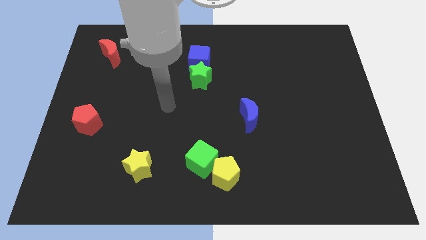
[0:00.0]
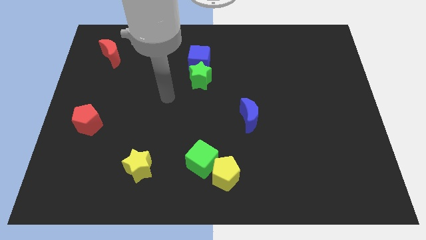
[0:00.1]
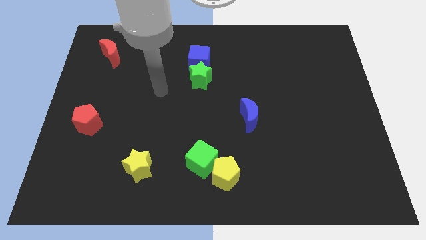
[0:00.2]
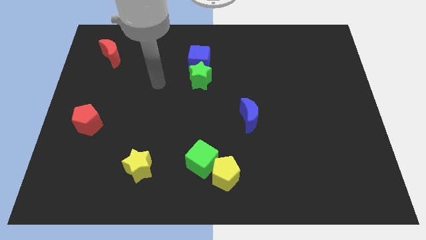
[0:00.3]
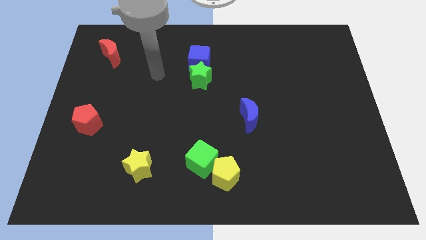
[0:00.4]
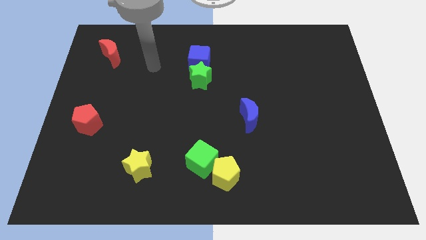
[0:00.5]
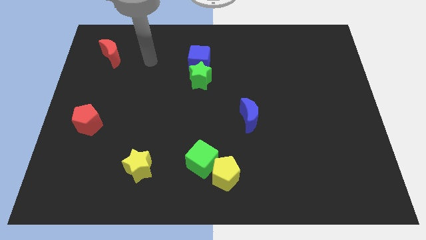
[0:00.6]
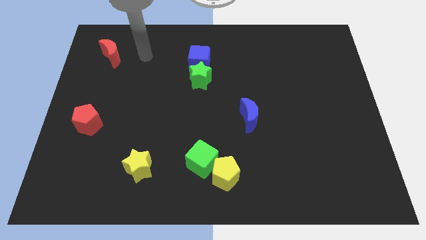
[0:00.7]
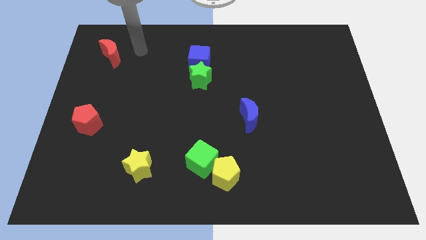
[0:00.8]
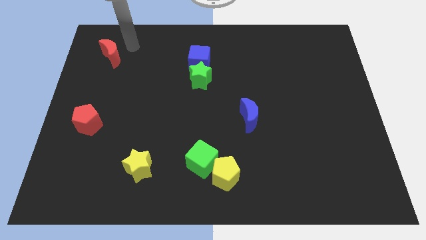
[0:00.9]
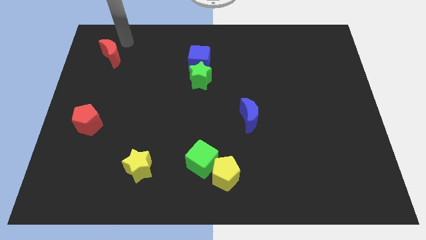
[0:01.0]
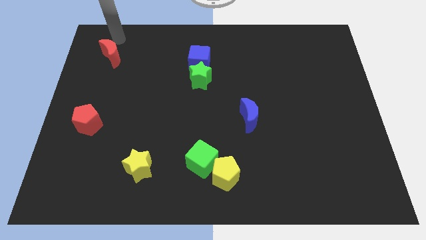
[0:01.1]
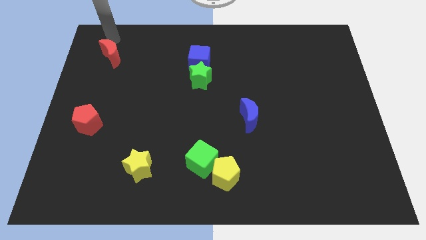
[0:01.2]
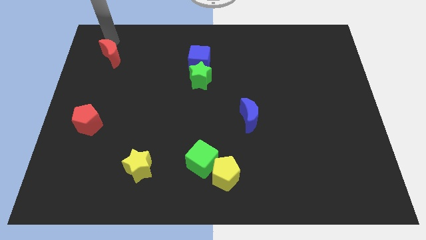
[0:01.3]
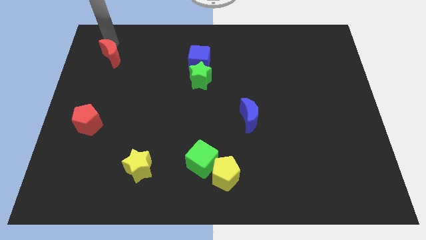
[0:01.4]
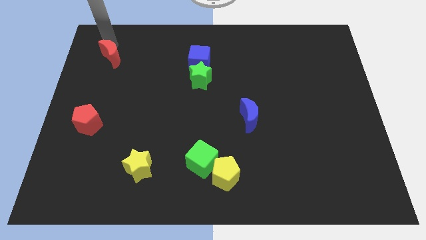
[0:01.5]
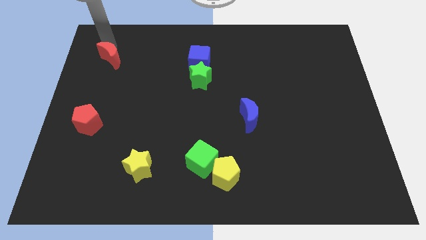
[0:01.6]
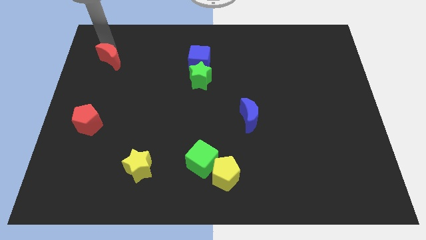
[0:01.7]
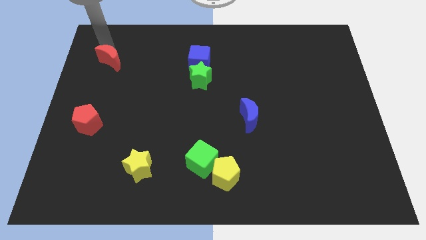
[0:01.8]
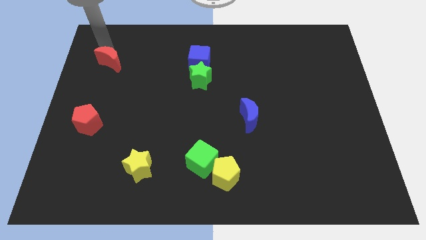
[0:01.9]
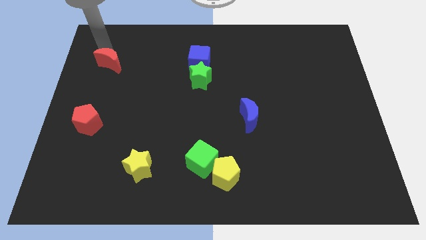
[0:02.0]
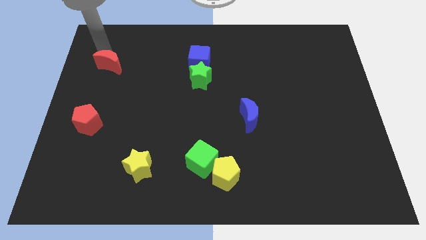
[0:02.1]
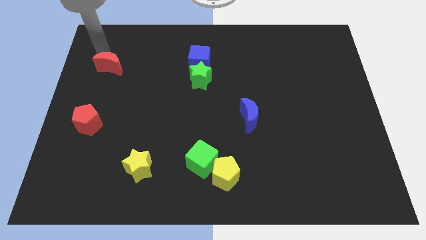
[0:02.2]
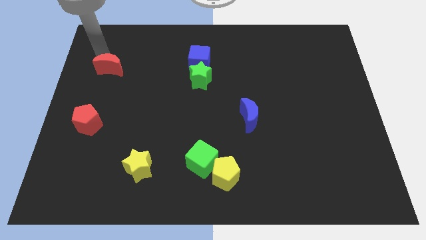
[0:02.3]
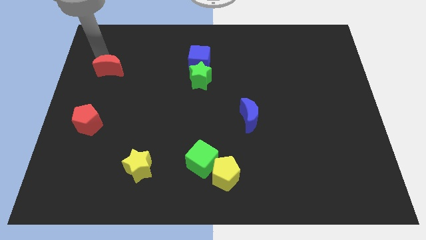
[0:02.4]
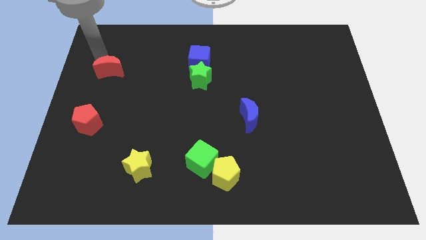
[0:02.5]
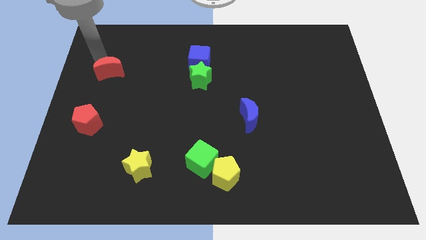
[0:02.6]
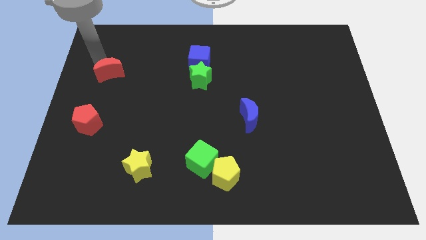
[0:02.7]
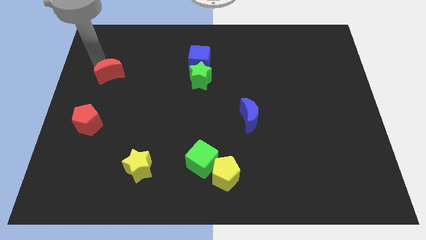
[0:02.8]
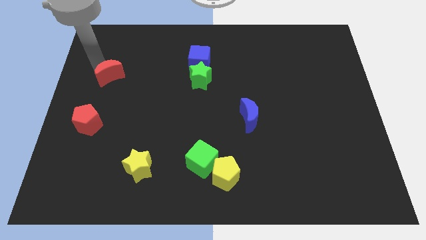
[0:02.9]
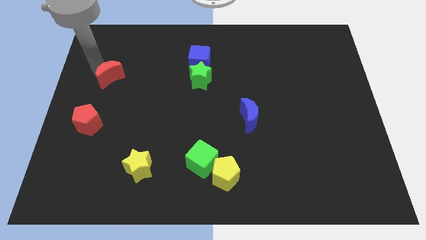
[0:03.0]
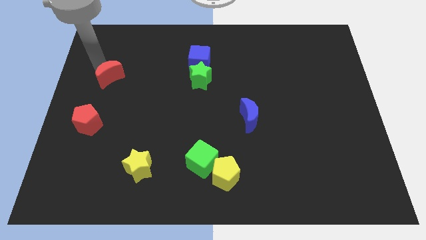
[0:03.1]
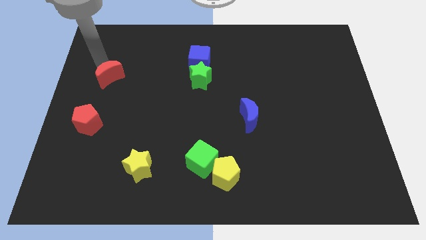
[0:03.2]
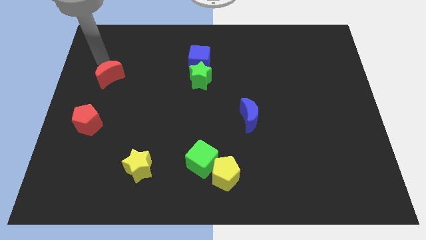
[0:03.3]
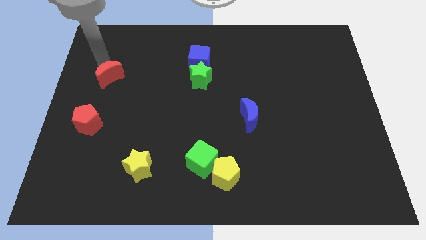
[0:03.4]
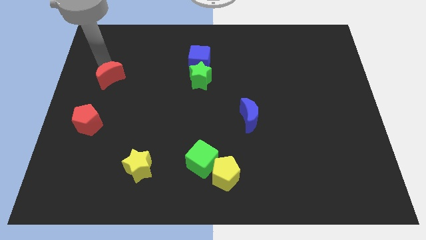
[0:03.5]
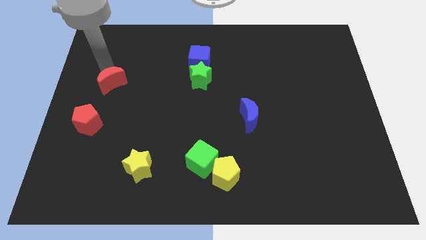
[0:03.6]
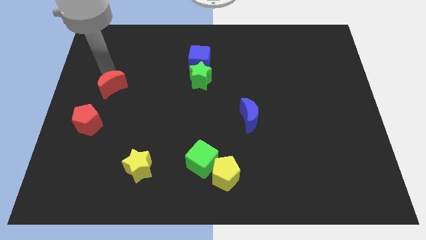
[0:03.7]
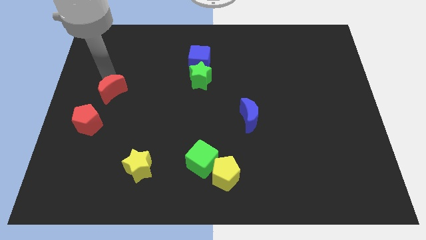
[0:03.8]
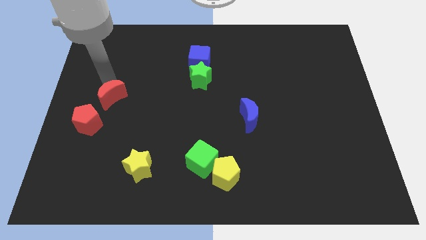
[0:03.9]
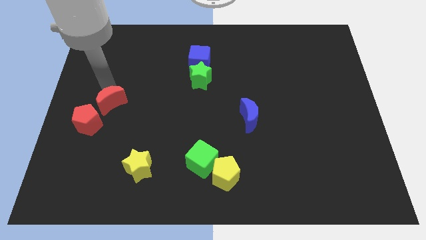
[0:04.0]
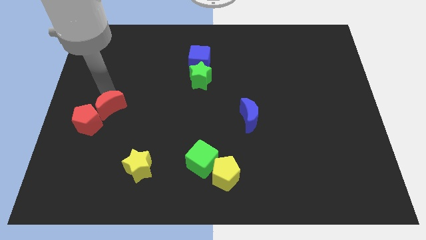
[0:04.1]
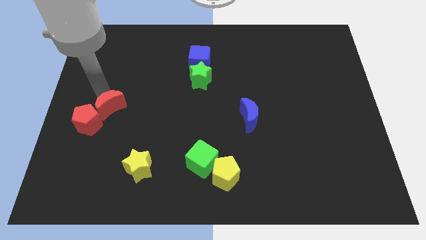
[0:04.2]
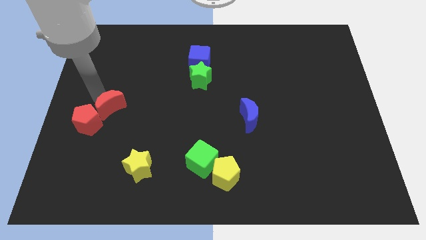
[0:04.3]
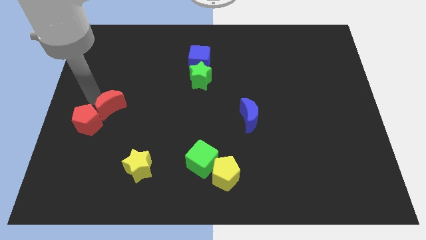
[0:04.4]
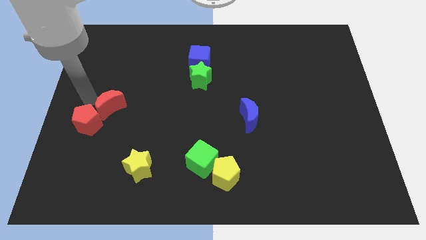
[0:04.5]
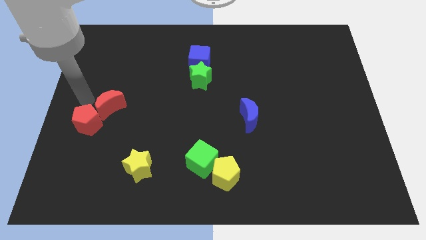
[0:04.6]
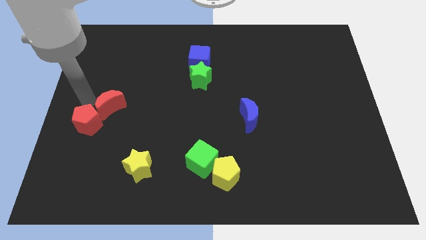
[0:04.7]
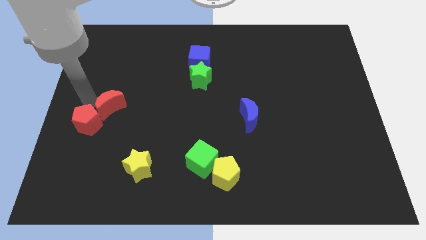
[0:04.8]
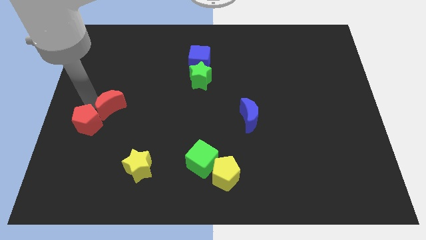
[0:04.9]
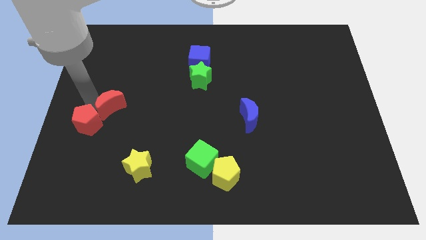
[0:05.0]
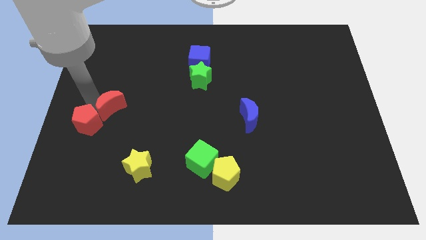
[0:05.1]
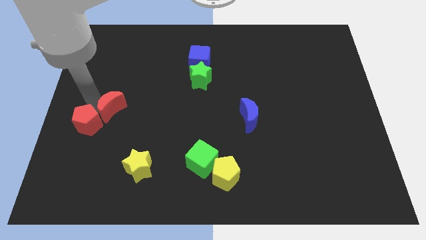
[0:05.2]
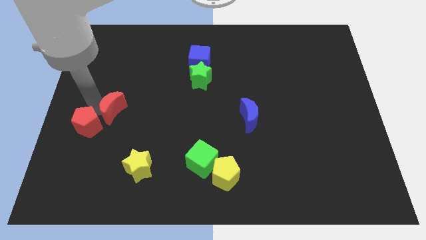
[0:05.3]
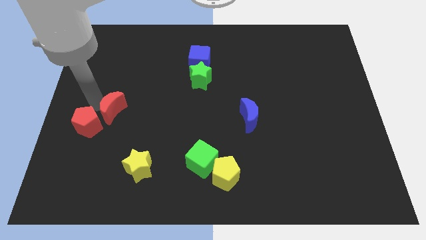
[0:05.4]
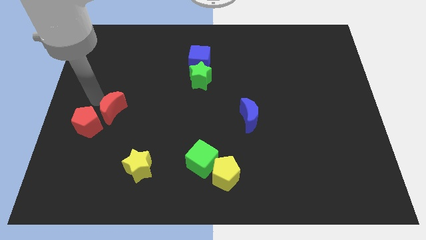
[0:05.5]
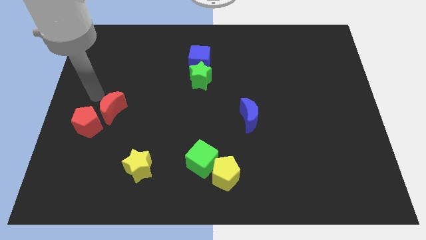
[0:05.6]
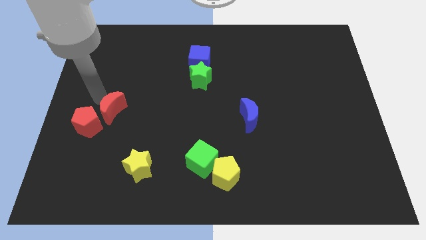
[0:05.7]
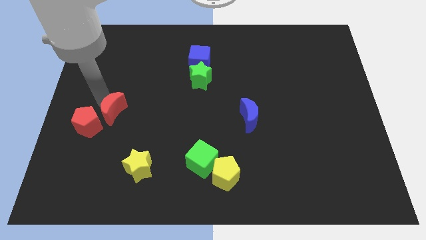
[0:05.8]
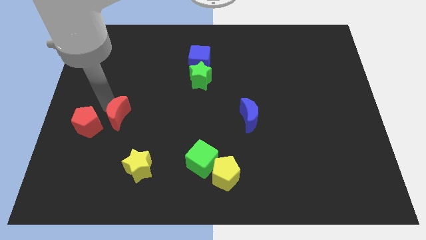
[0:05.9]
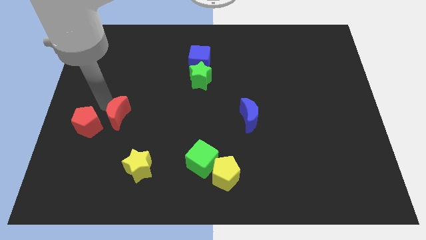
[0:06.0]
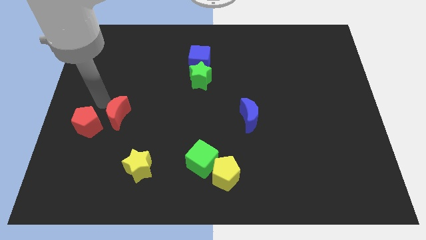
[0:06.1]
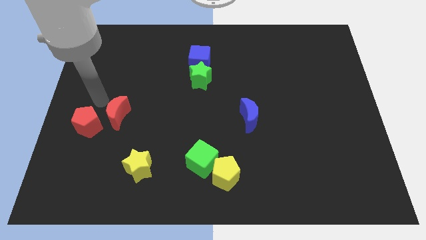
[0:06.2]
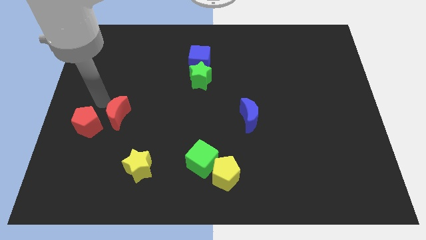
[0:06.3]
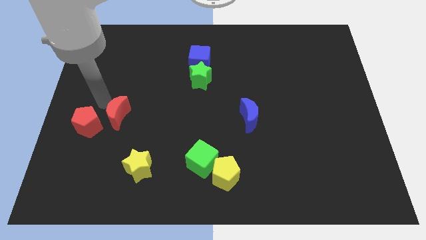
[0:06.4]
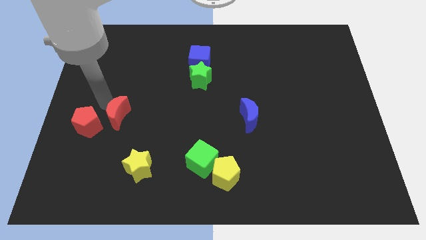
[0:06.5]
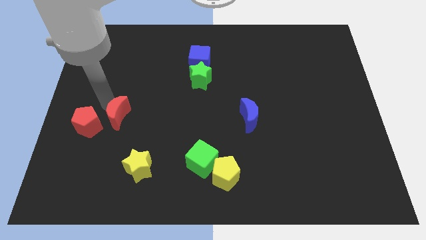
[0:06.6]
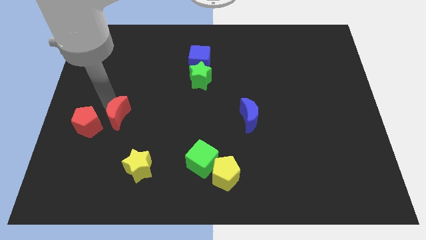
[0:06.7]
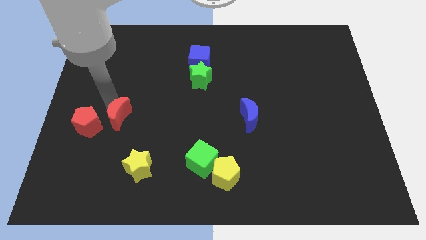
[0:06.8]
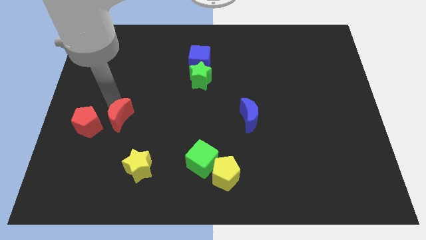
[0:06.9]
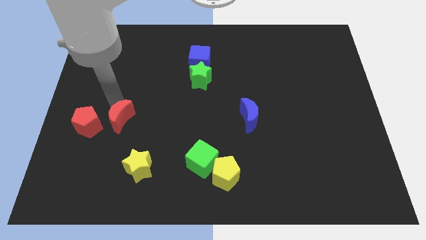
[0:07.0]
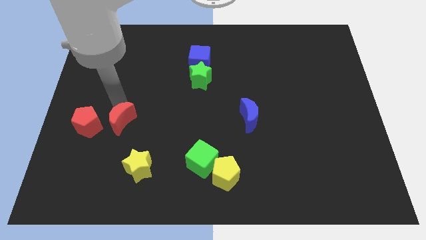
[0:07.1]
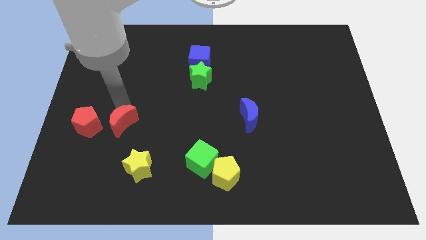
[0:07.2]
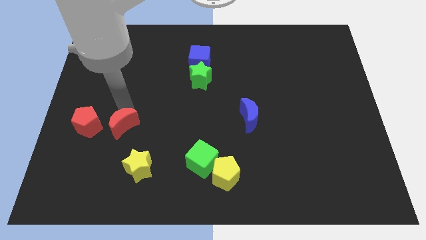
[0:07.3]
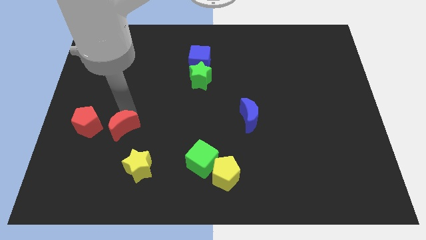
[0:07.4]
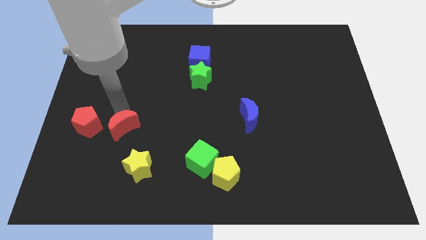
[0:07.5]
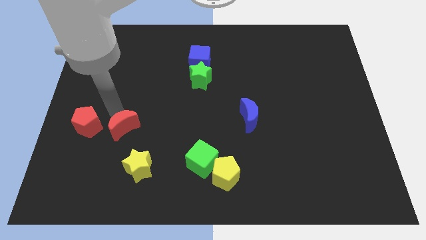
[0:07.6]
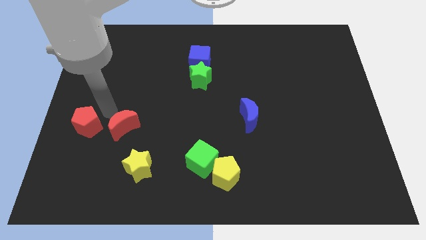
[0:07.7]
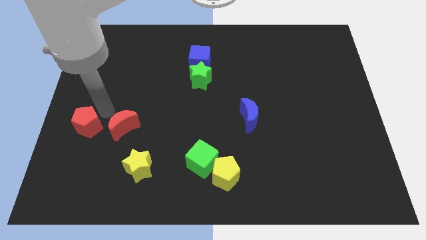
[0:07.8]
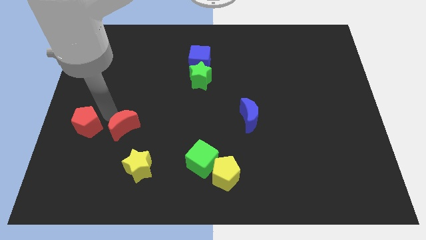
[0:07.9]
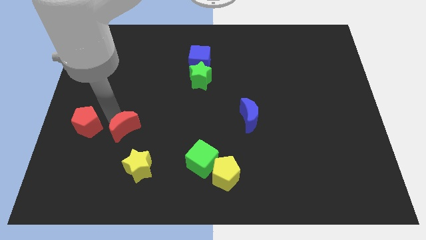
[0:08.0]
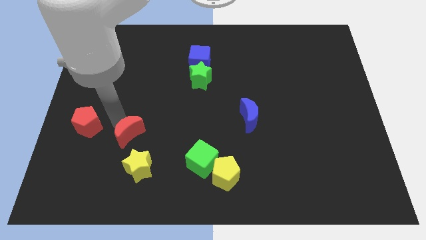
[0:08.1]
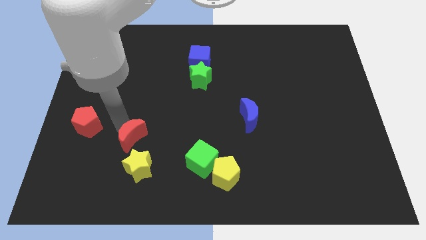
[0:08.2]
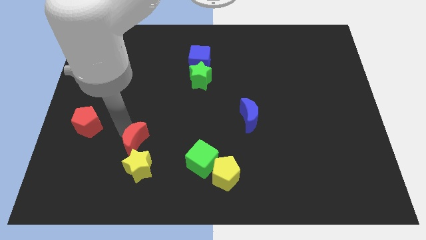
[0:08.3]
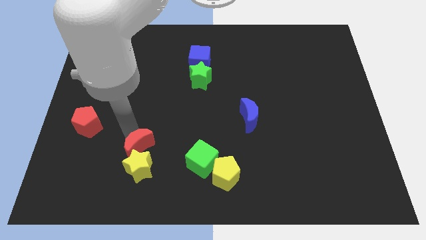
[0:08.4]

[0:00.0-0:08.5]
slide the red moon next to the yellow star
